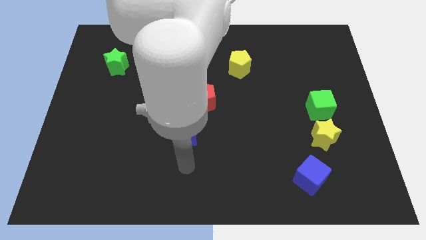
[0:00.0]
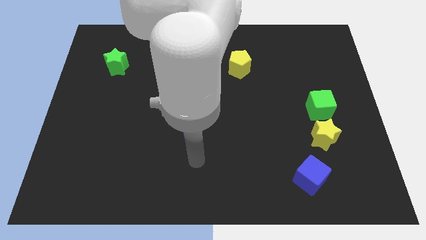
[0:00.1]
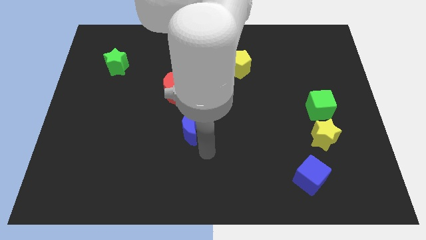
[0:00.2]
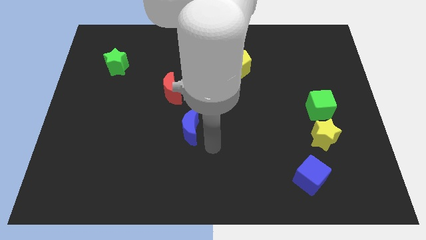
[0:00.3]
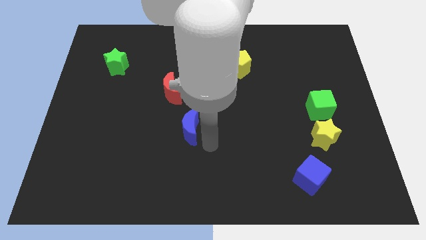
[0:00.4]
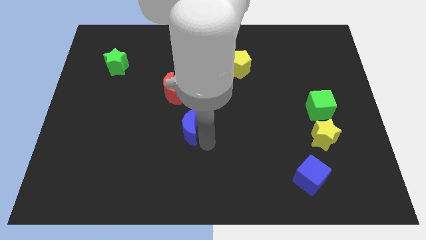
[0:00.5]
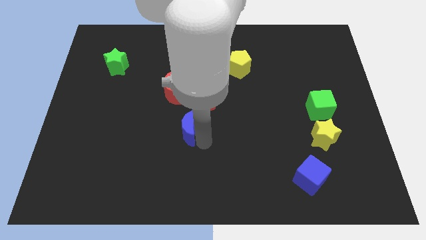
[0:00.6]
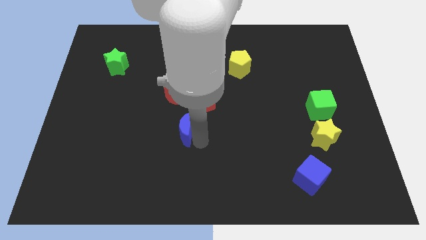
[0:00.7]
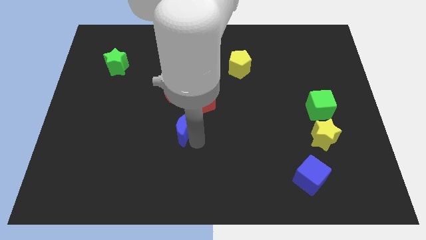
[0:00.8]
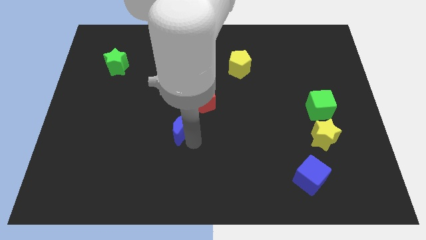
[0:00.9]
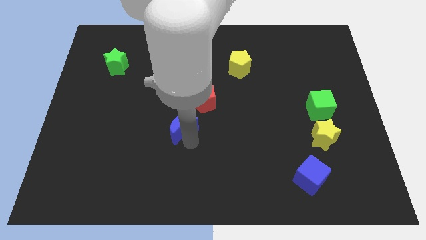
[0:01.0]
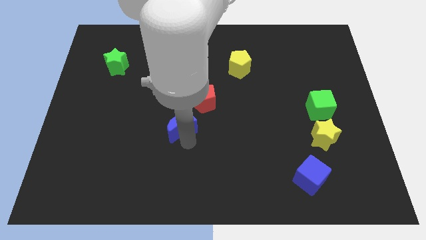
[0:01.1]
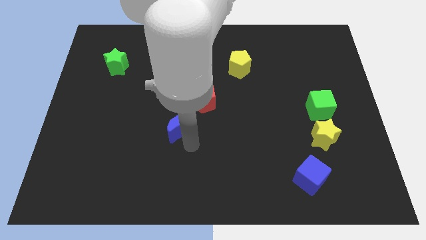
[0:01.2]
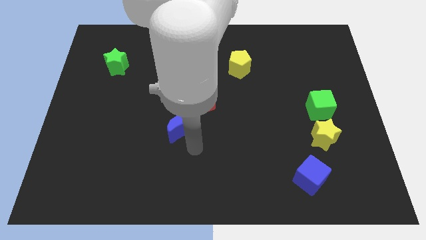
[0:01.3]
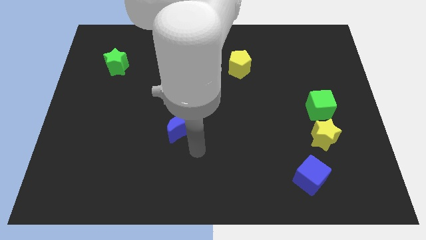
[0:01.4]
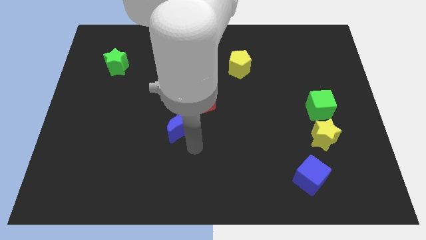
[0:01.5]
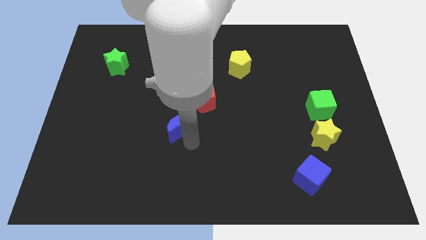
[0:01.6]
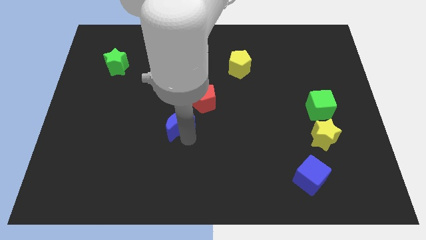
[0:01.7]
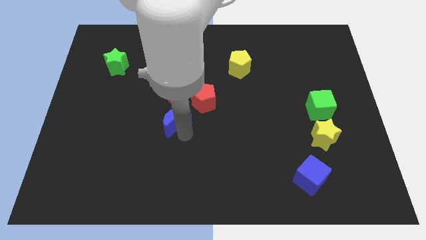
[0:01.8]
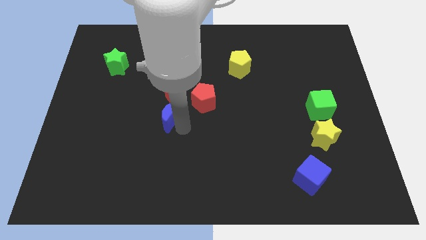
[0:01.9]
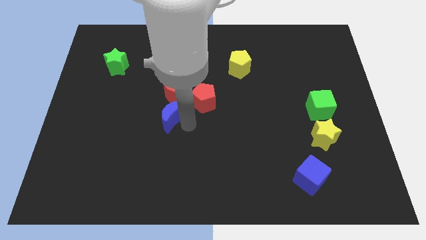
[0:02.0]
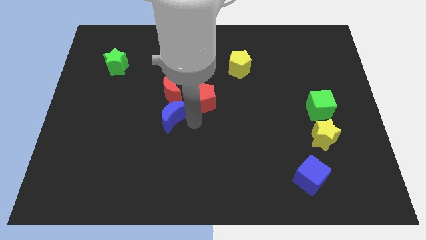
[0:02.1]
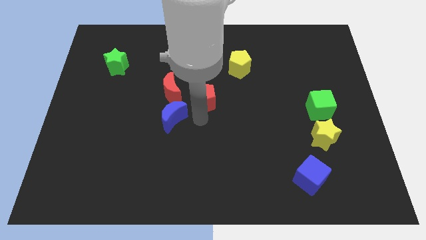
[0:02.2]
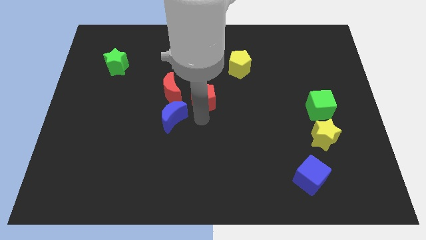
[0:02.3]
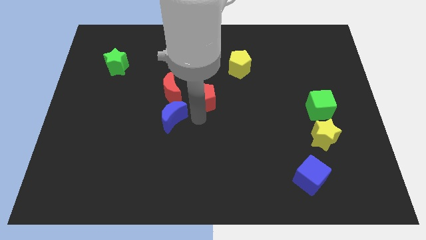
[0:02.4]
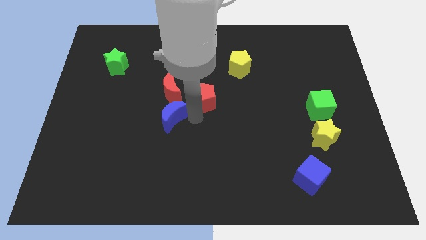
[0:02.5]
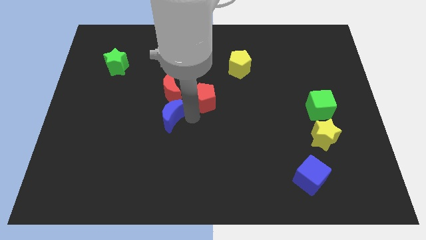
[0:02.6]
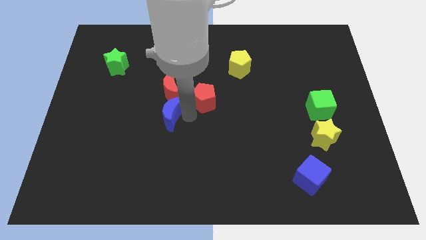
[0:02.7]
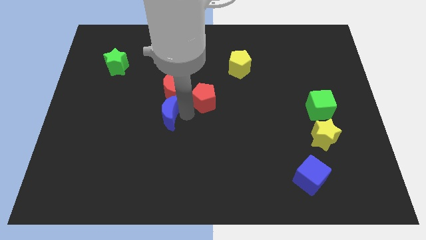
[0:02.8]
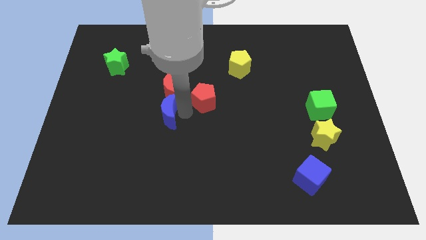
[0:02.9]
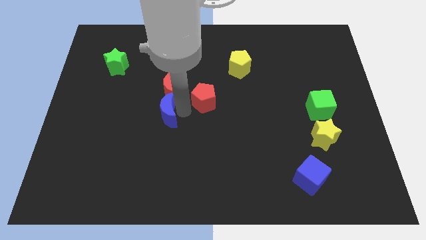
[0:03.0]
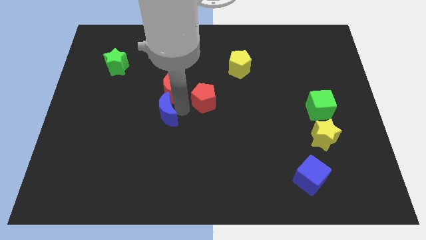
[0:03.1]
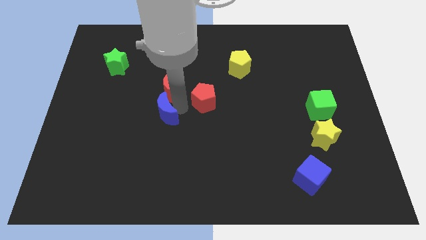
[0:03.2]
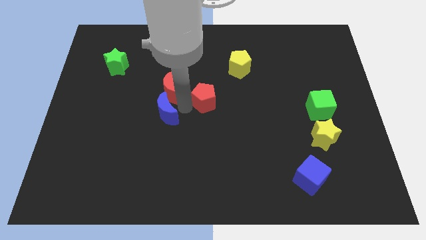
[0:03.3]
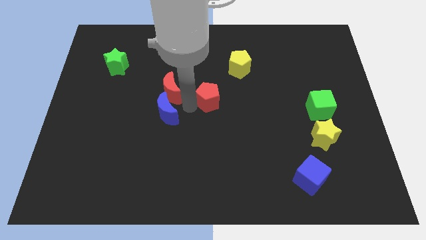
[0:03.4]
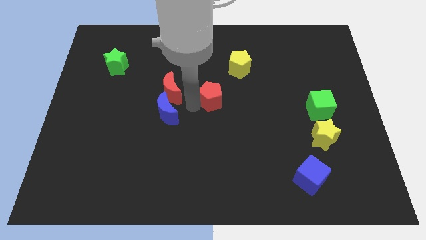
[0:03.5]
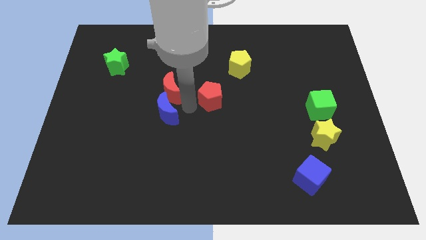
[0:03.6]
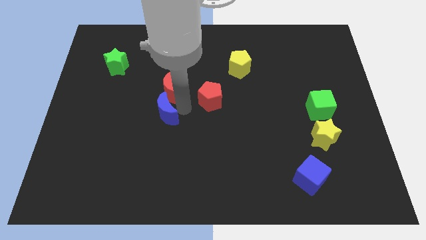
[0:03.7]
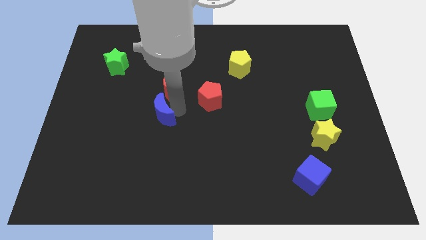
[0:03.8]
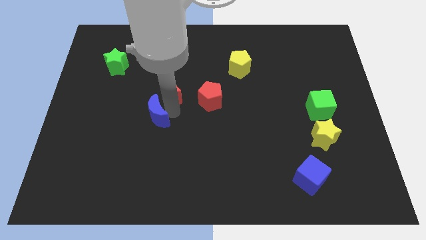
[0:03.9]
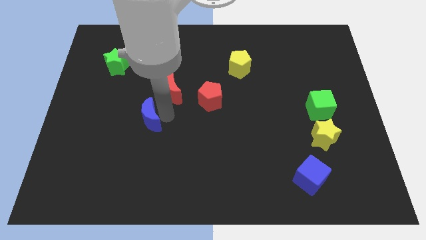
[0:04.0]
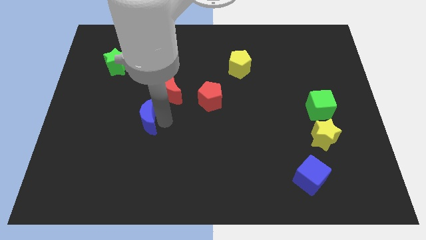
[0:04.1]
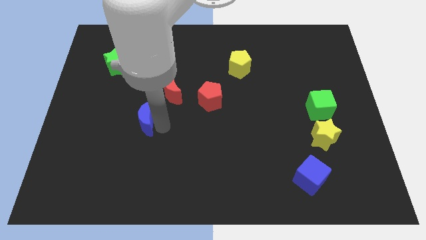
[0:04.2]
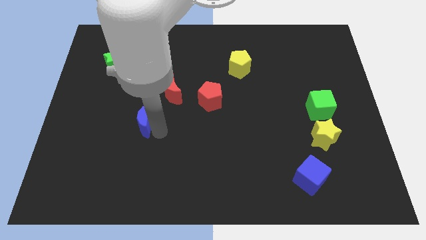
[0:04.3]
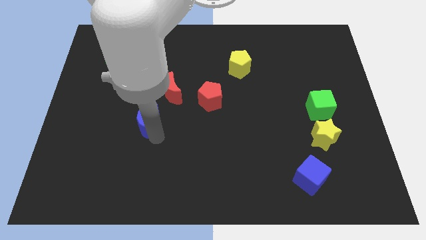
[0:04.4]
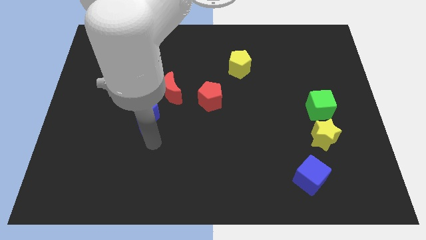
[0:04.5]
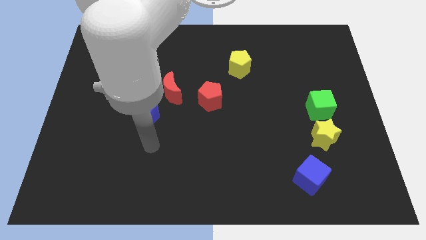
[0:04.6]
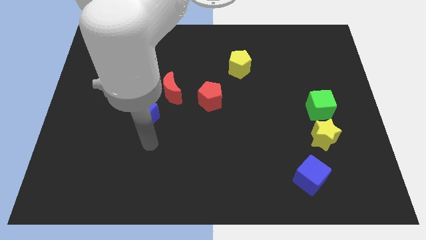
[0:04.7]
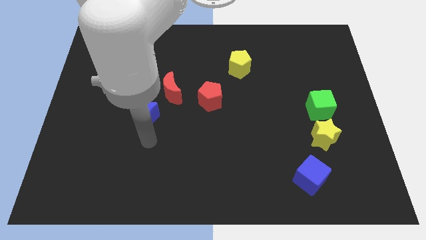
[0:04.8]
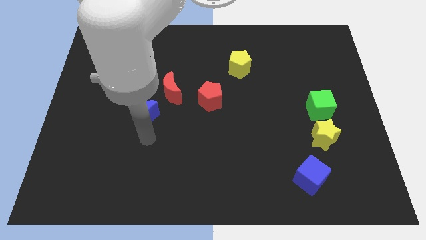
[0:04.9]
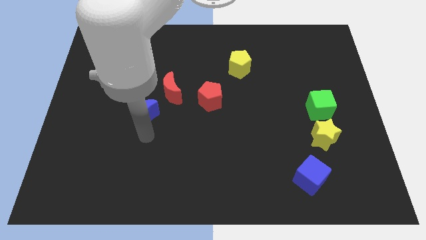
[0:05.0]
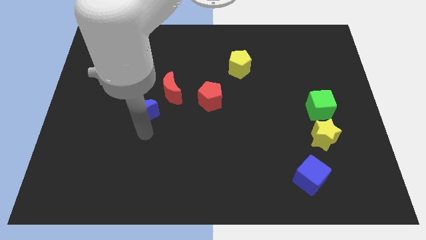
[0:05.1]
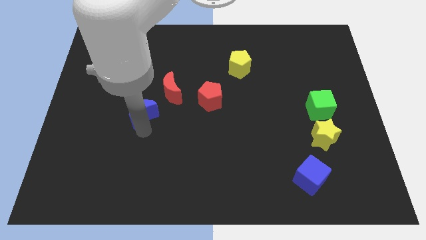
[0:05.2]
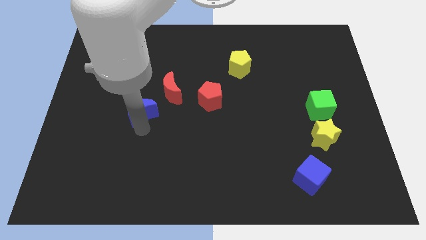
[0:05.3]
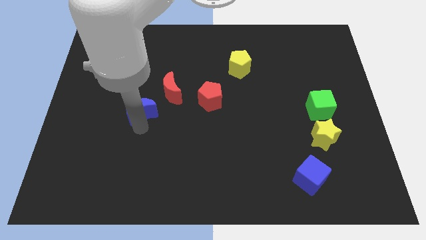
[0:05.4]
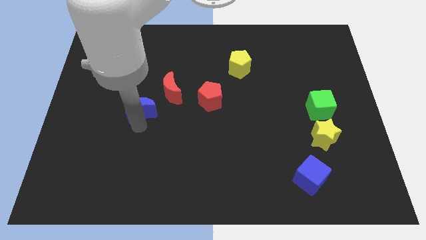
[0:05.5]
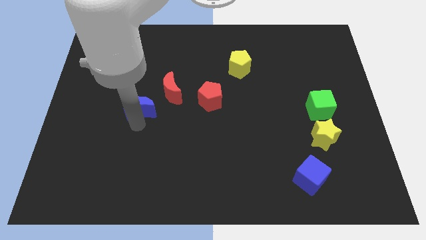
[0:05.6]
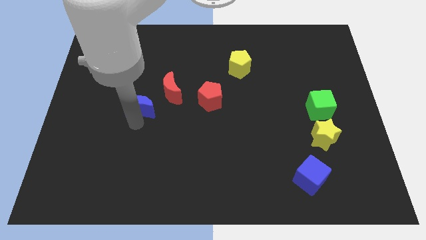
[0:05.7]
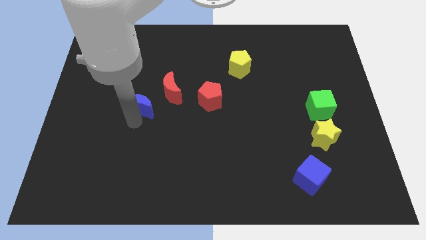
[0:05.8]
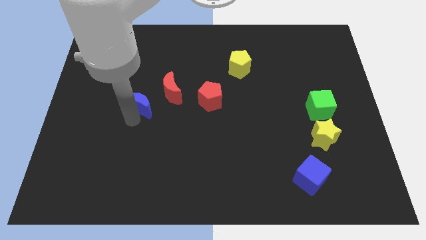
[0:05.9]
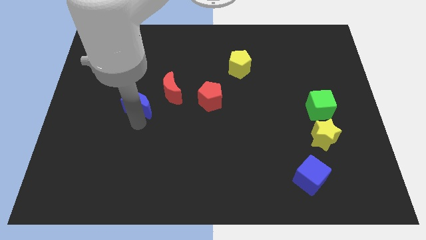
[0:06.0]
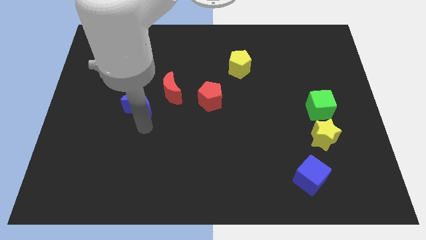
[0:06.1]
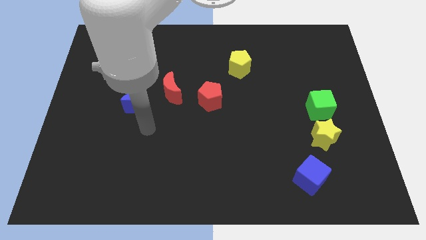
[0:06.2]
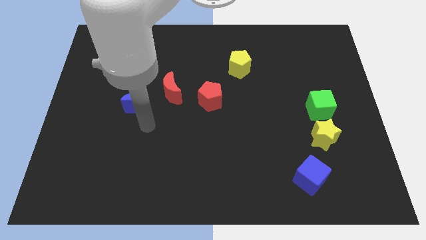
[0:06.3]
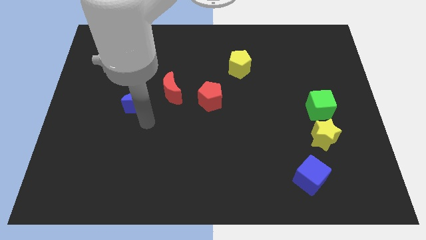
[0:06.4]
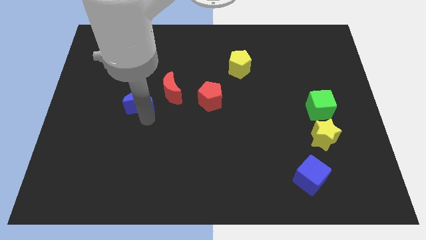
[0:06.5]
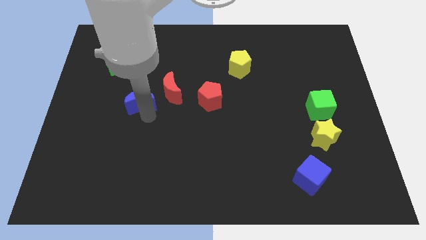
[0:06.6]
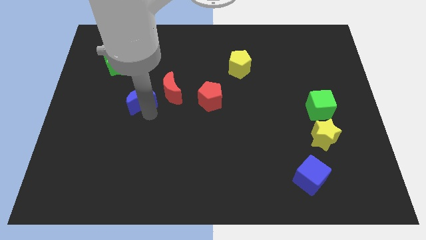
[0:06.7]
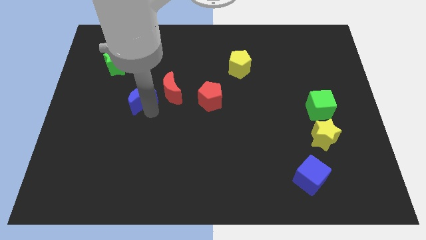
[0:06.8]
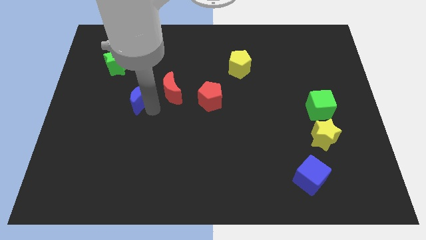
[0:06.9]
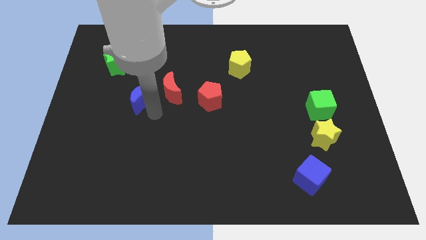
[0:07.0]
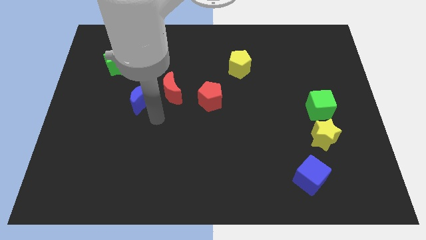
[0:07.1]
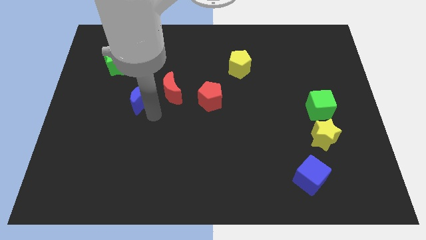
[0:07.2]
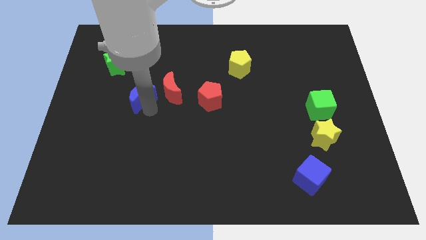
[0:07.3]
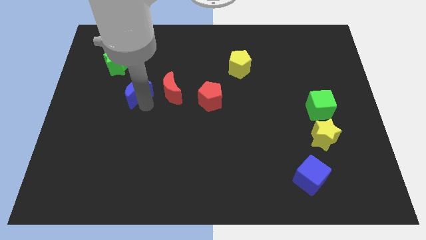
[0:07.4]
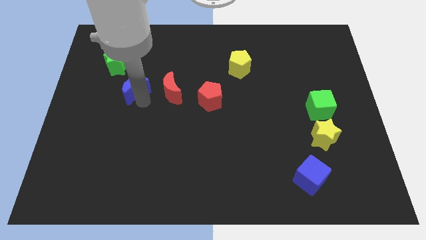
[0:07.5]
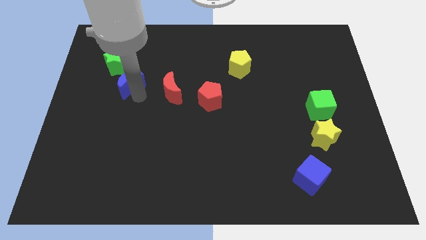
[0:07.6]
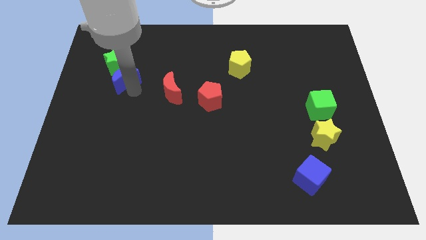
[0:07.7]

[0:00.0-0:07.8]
slide the blue moon to the green star

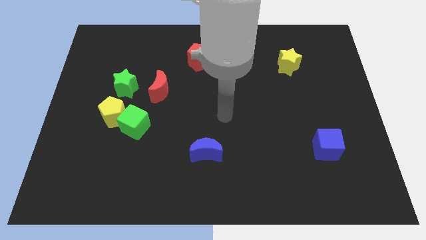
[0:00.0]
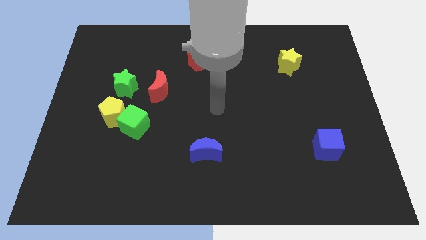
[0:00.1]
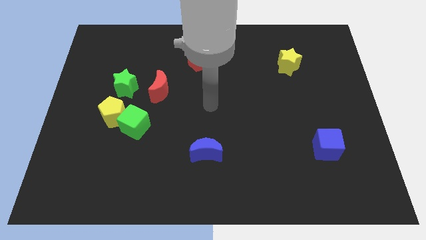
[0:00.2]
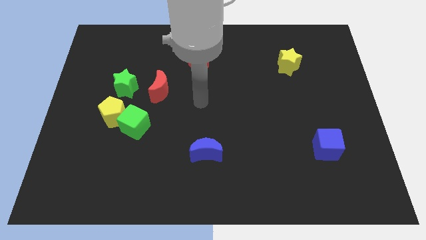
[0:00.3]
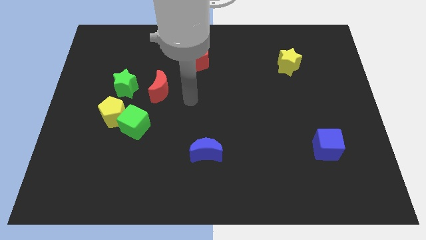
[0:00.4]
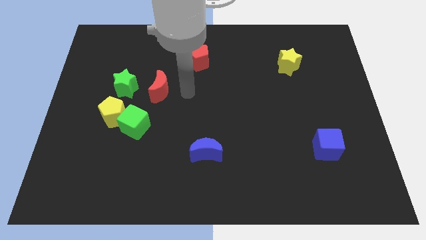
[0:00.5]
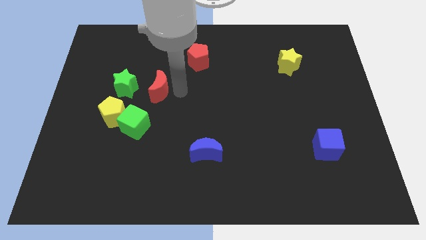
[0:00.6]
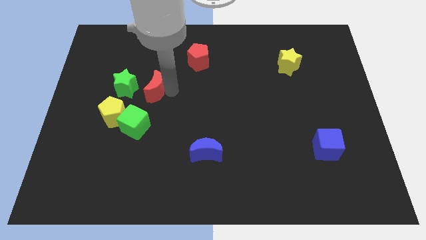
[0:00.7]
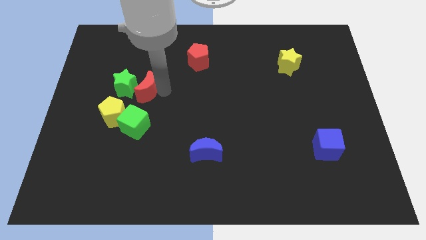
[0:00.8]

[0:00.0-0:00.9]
put the red moon next to the green star
